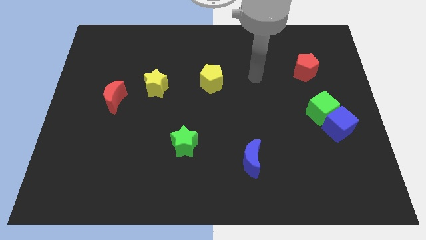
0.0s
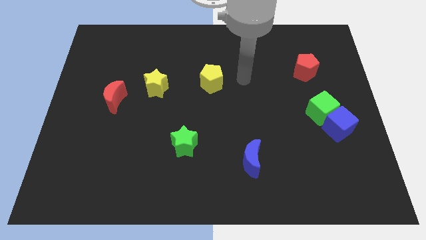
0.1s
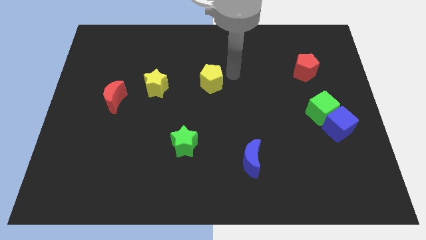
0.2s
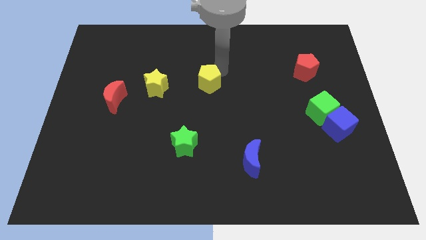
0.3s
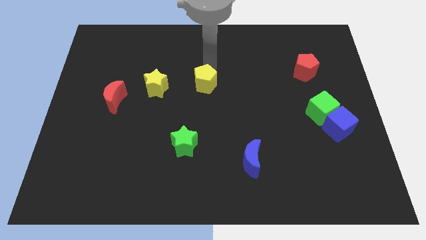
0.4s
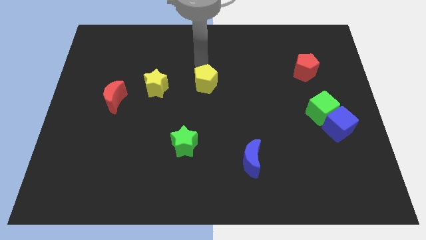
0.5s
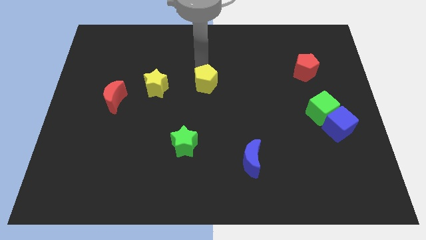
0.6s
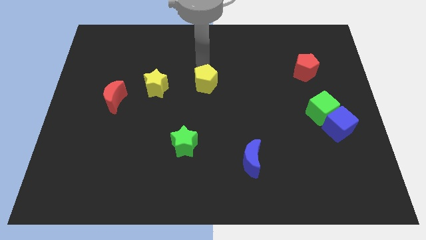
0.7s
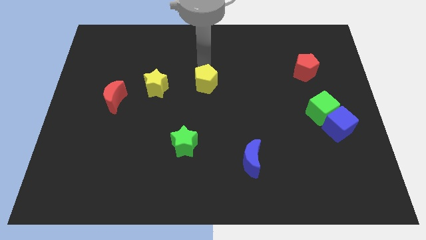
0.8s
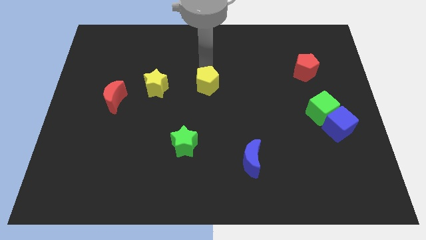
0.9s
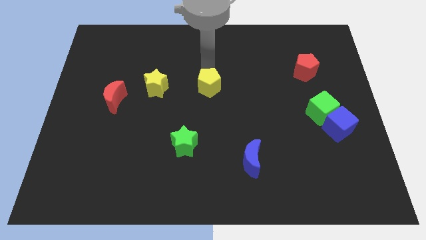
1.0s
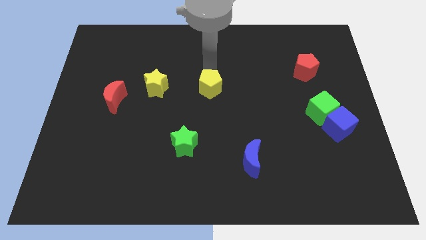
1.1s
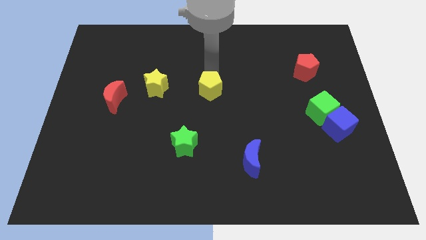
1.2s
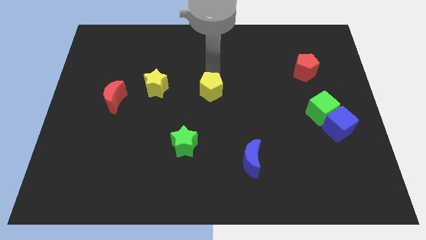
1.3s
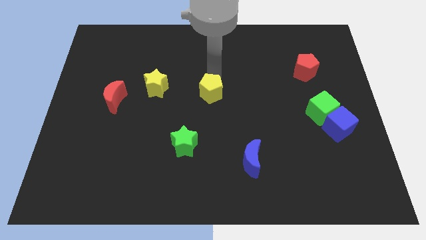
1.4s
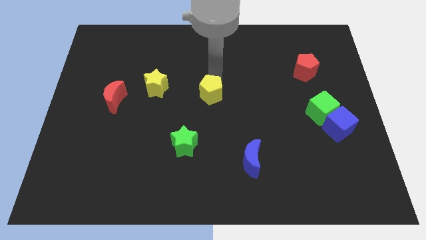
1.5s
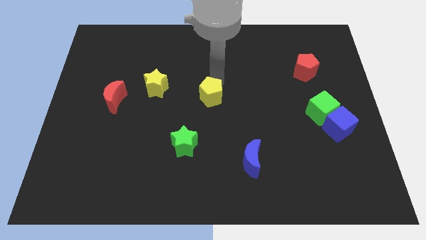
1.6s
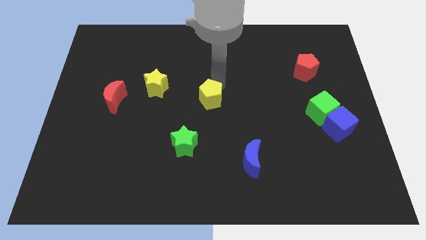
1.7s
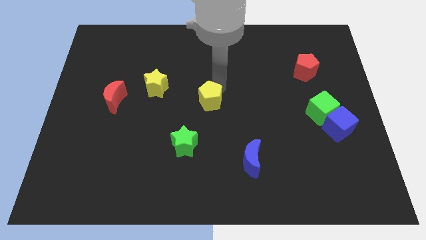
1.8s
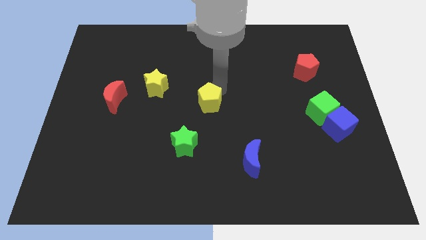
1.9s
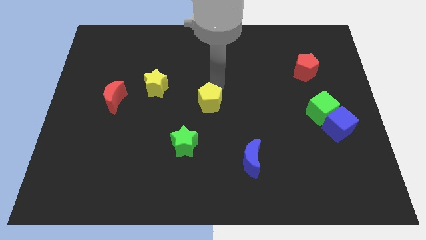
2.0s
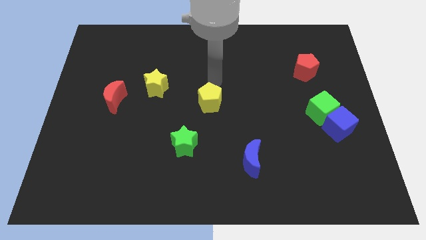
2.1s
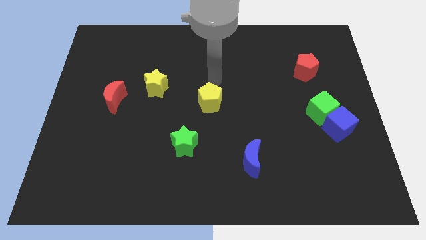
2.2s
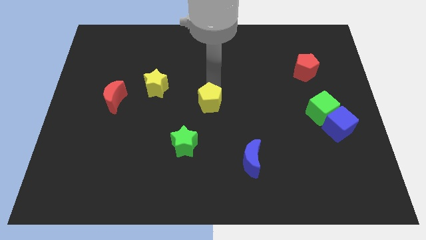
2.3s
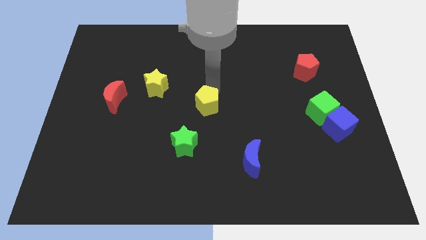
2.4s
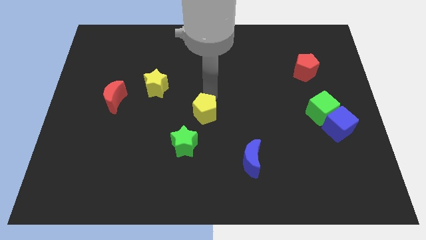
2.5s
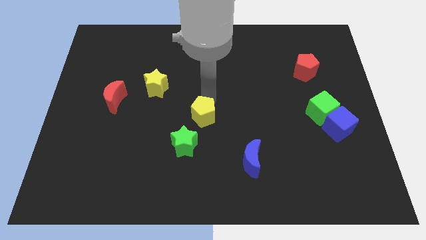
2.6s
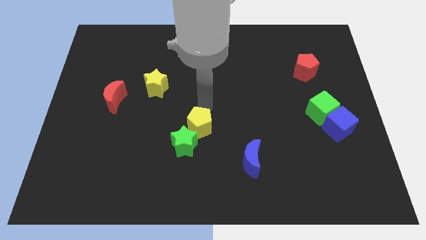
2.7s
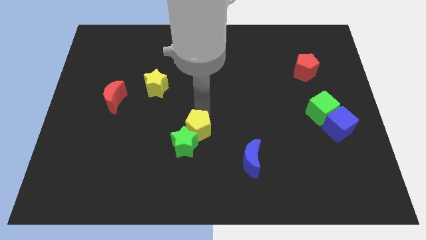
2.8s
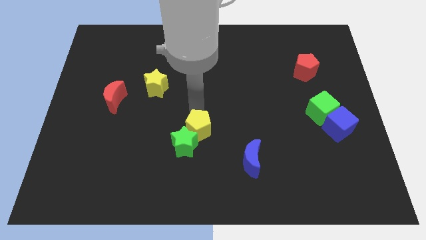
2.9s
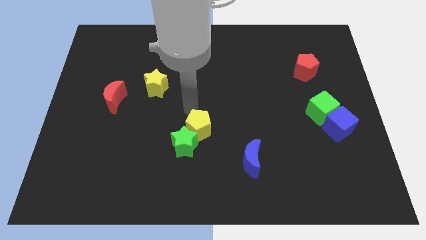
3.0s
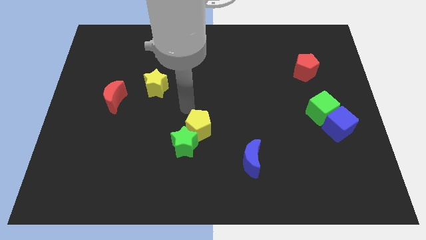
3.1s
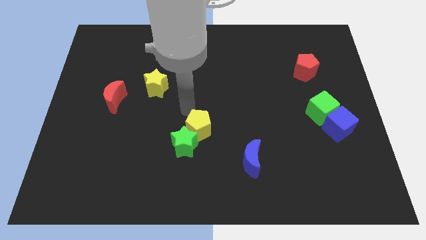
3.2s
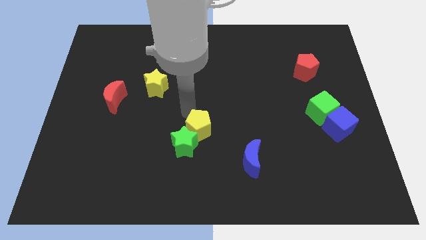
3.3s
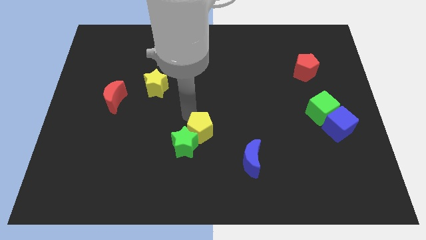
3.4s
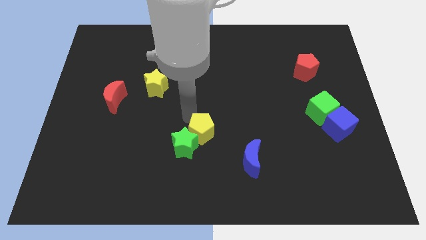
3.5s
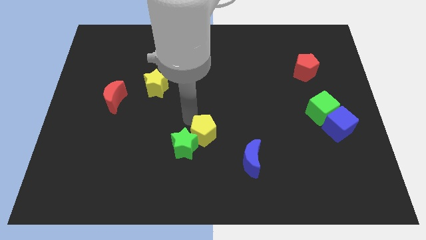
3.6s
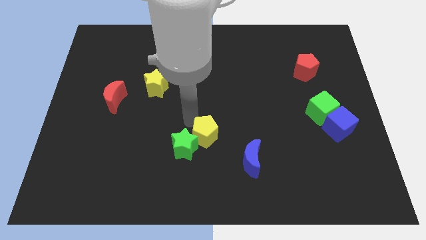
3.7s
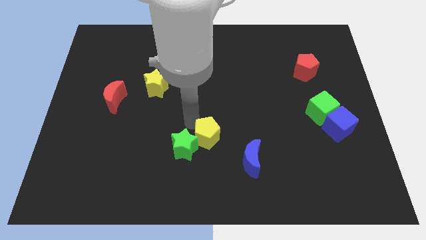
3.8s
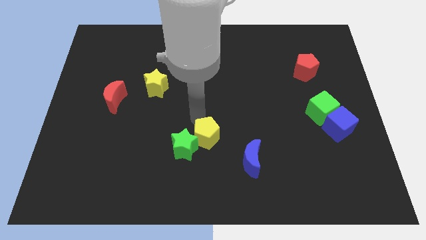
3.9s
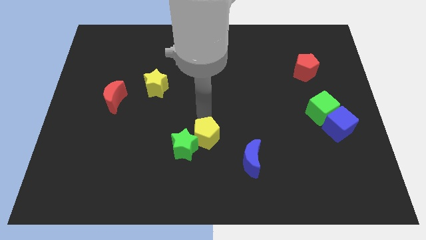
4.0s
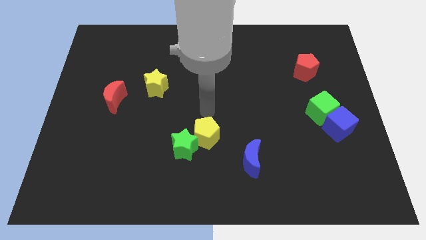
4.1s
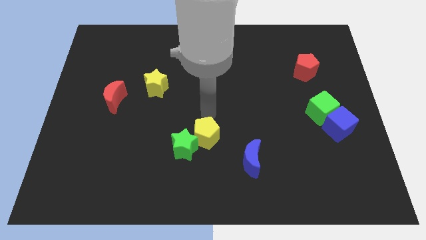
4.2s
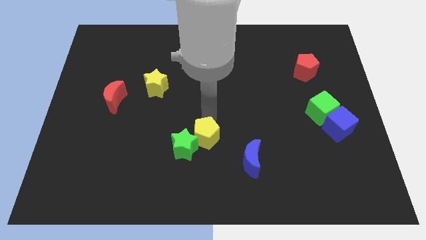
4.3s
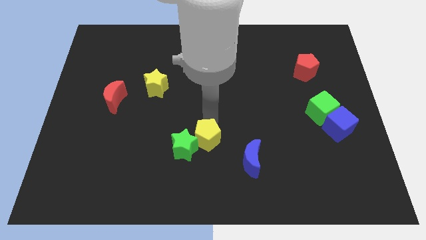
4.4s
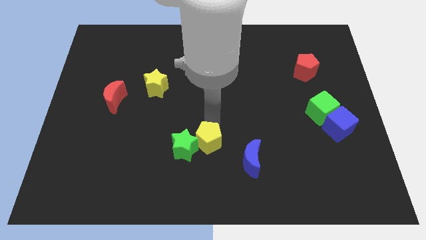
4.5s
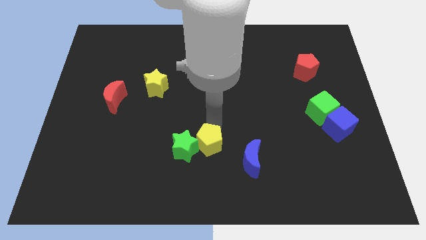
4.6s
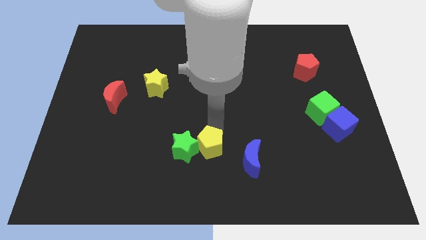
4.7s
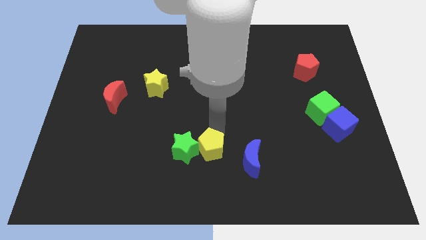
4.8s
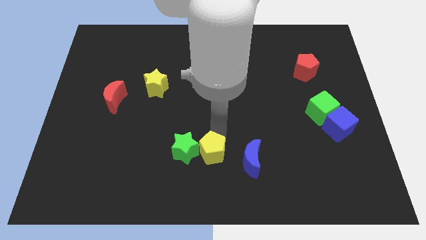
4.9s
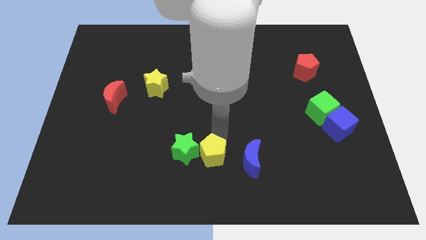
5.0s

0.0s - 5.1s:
push the yellow pentagon to the bottom side

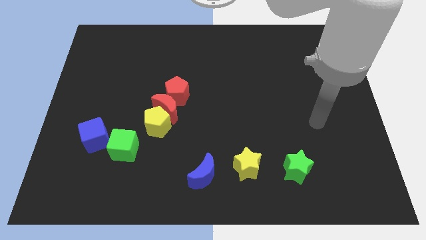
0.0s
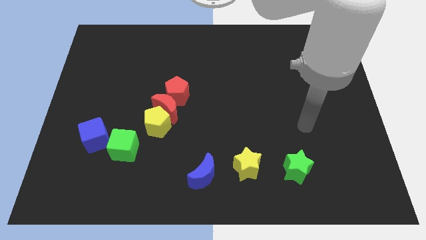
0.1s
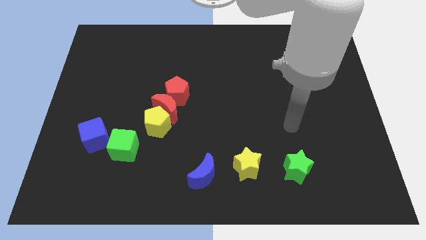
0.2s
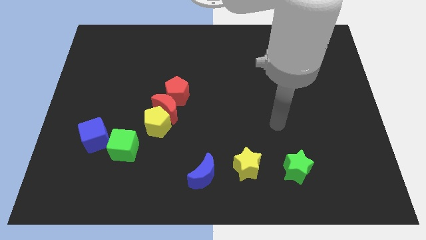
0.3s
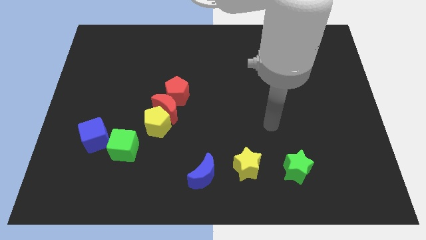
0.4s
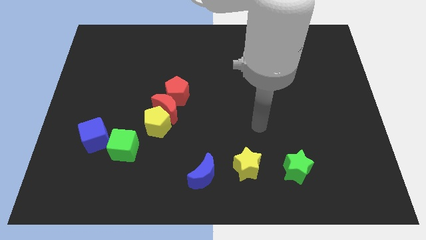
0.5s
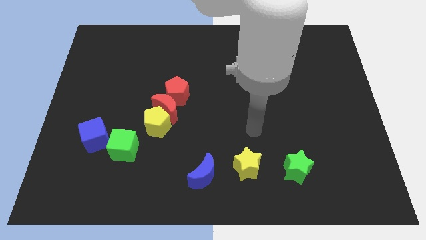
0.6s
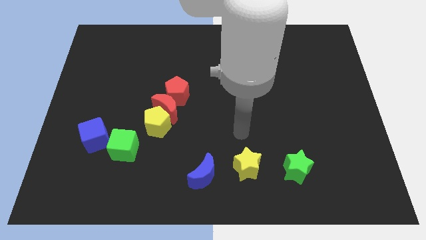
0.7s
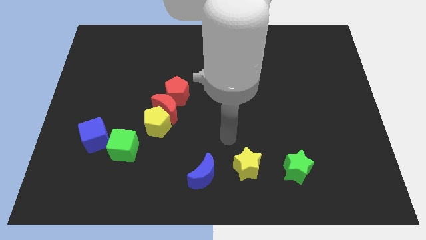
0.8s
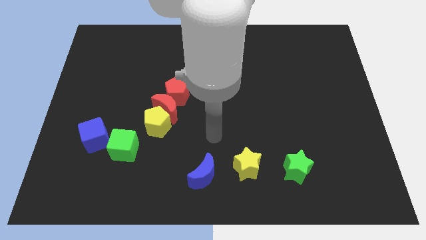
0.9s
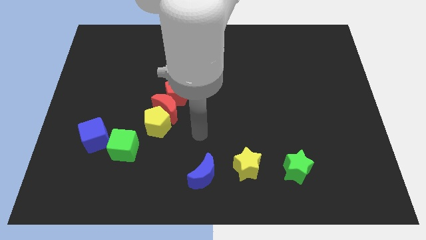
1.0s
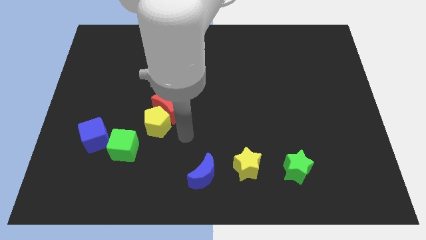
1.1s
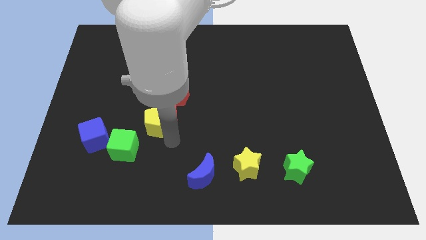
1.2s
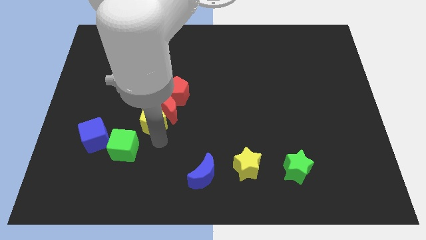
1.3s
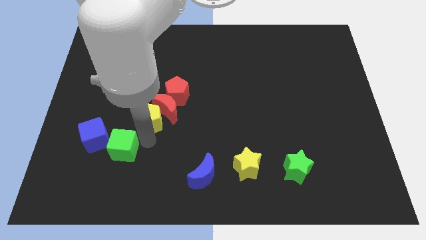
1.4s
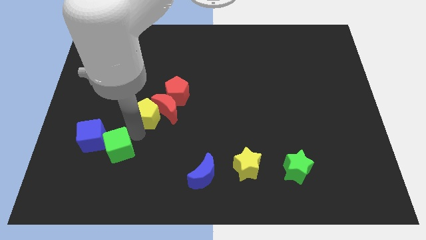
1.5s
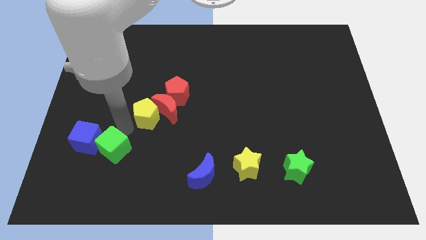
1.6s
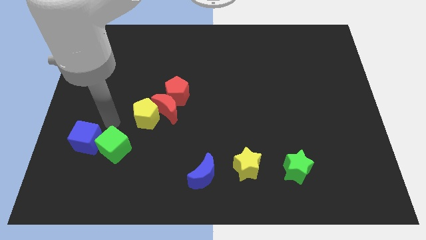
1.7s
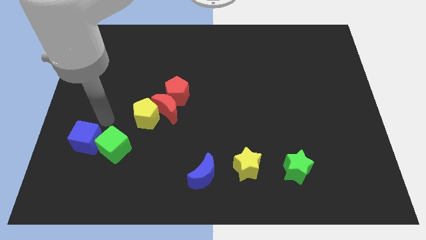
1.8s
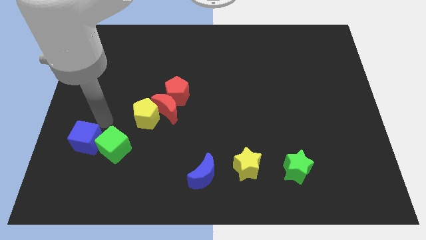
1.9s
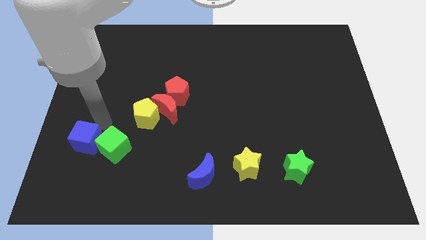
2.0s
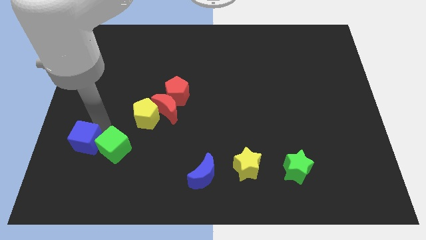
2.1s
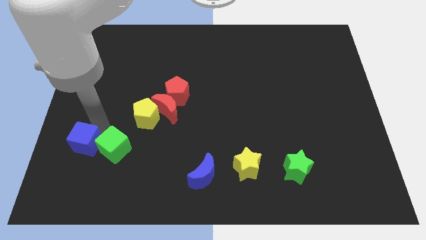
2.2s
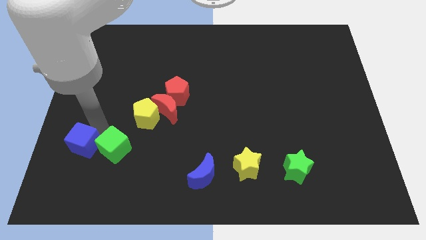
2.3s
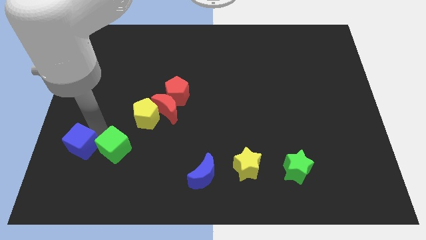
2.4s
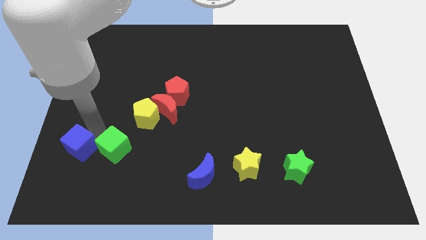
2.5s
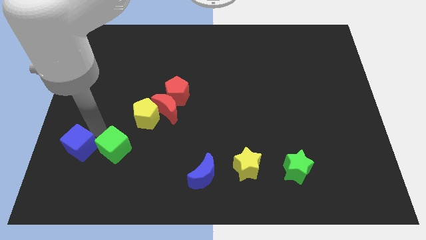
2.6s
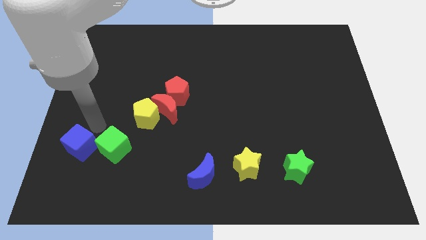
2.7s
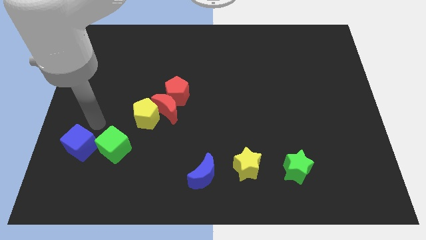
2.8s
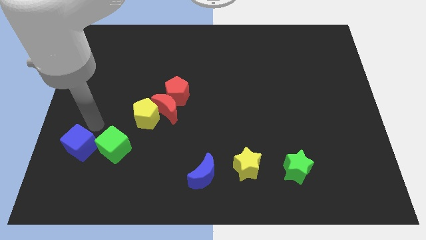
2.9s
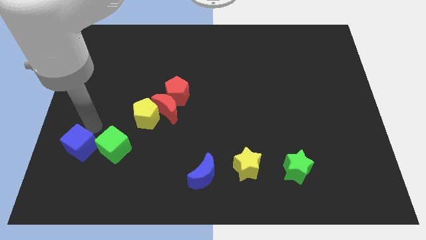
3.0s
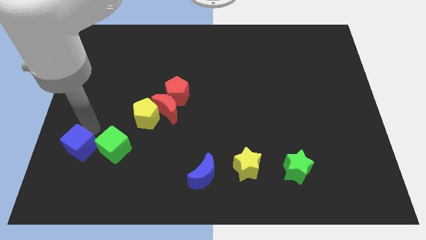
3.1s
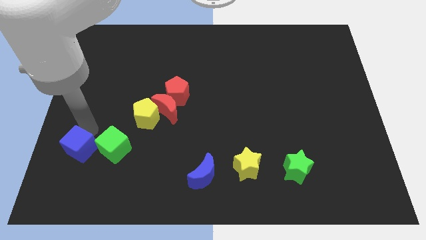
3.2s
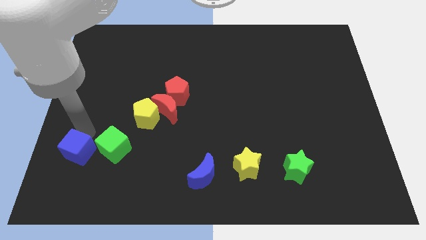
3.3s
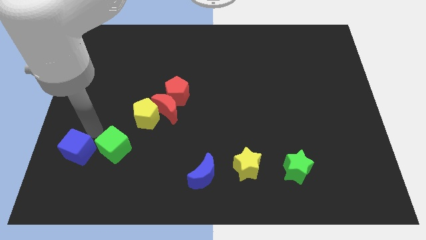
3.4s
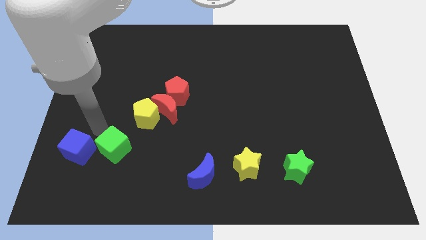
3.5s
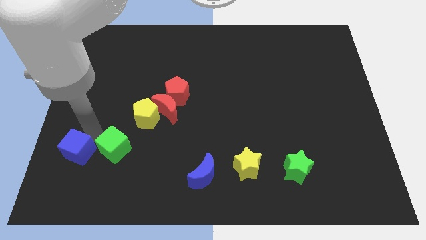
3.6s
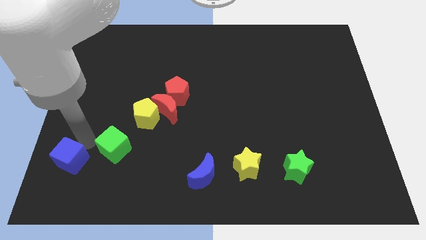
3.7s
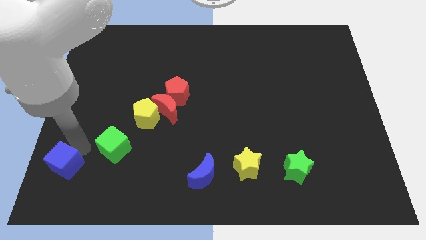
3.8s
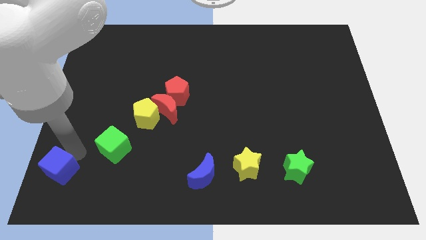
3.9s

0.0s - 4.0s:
push the blue cube to the bottom left corner
